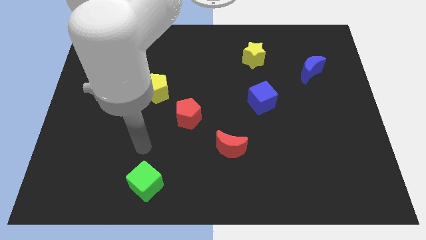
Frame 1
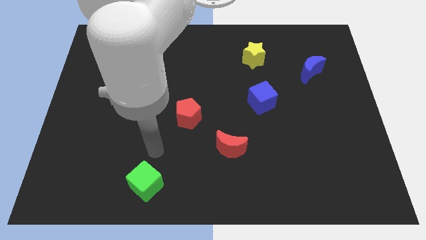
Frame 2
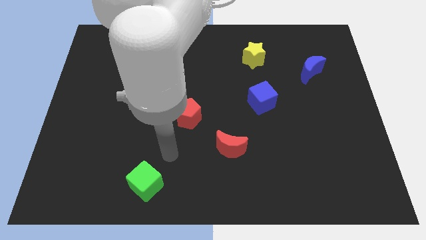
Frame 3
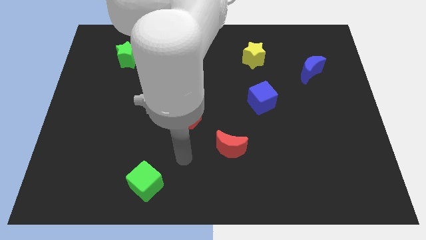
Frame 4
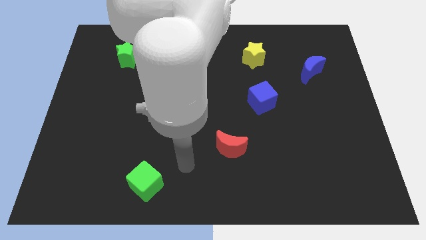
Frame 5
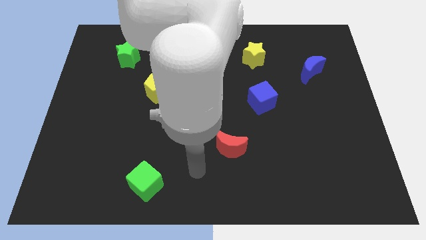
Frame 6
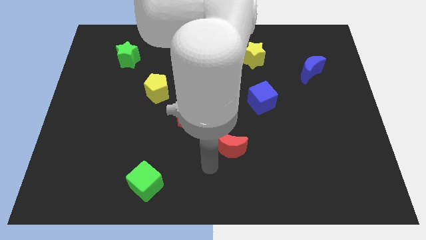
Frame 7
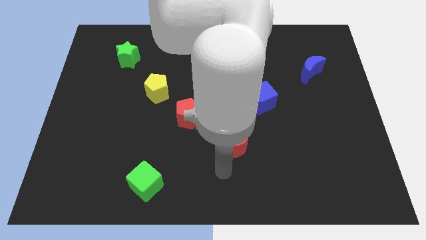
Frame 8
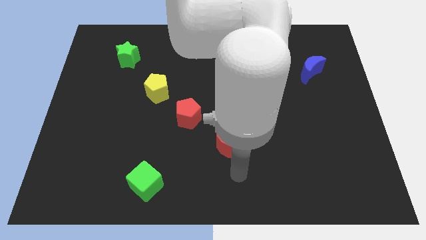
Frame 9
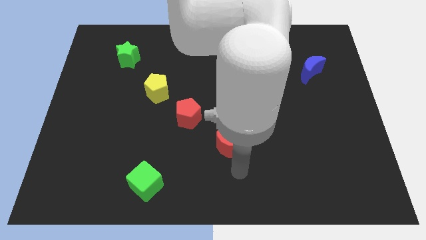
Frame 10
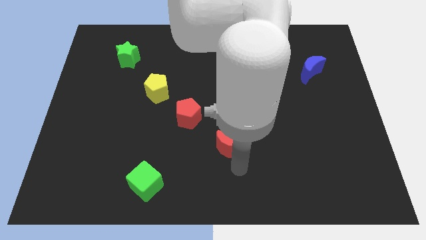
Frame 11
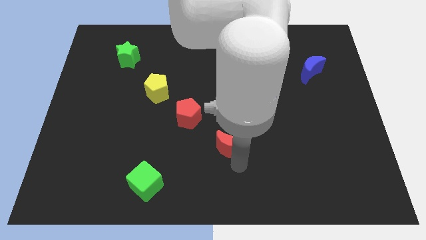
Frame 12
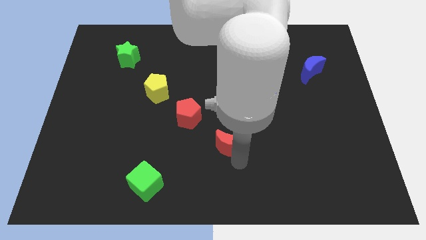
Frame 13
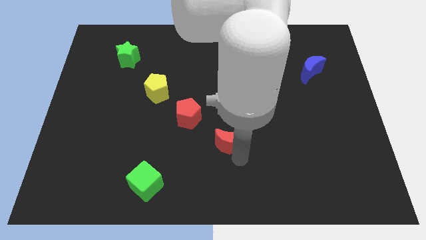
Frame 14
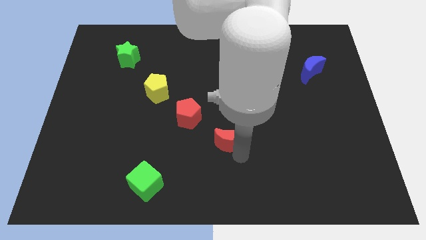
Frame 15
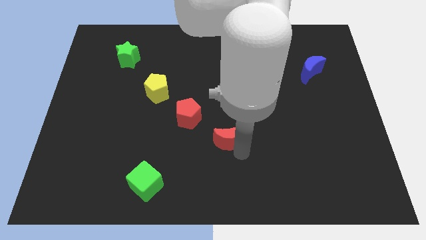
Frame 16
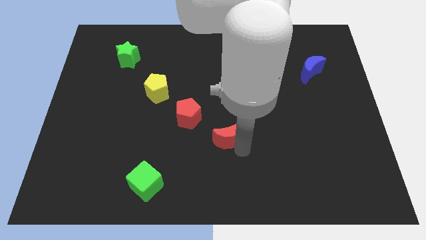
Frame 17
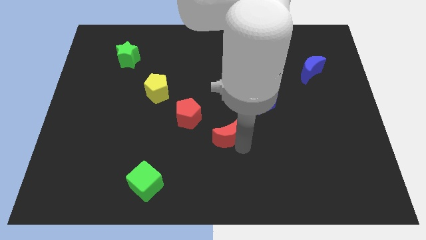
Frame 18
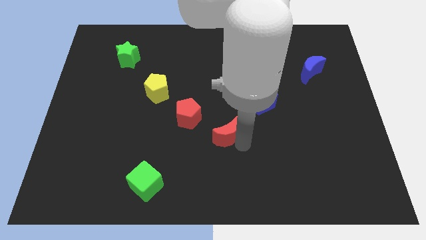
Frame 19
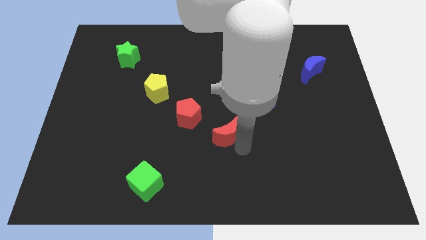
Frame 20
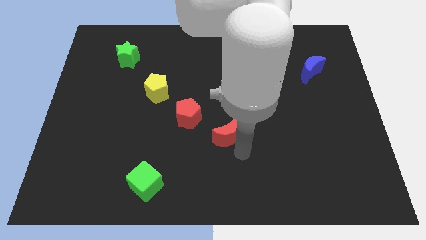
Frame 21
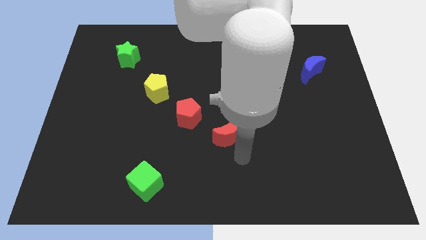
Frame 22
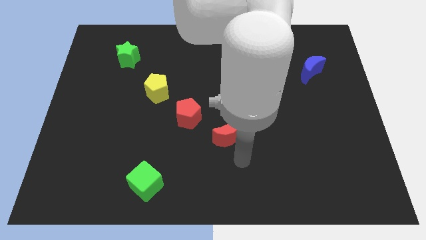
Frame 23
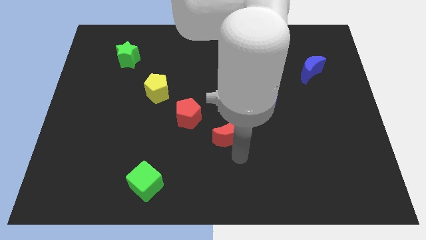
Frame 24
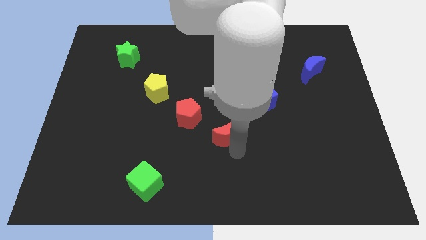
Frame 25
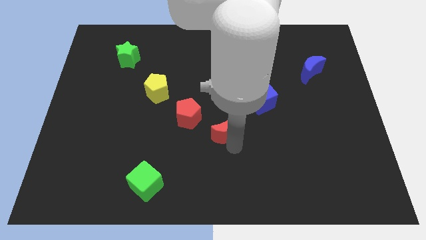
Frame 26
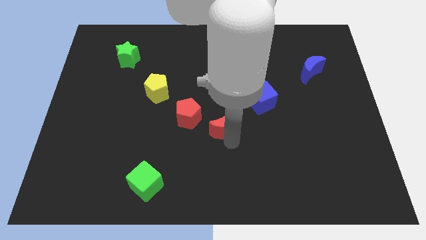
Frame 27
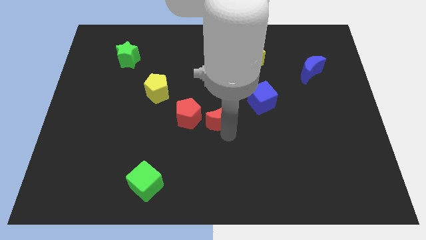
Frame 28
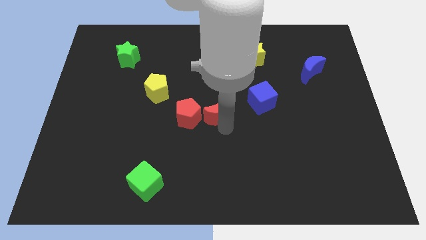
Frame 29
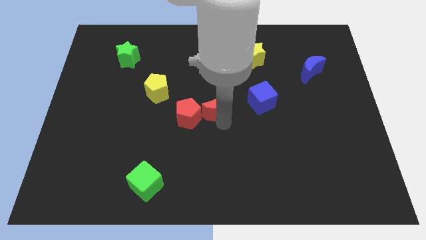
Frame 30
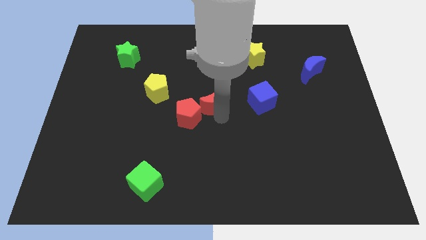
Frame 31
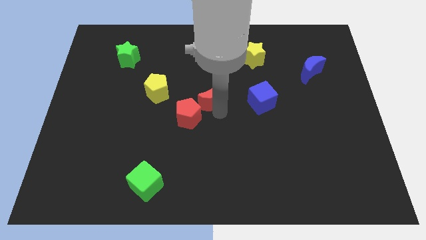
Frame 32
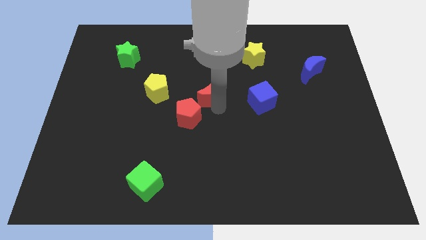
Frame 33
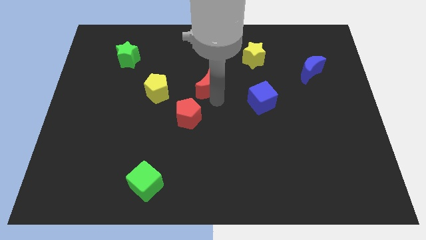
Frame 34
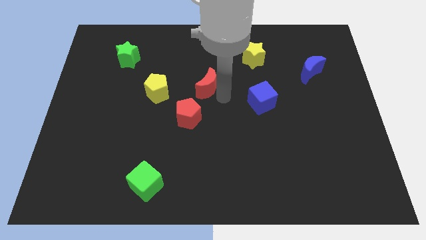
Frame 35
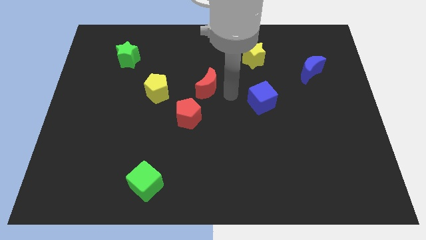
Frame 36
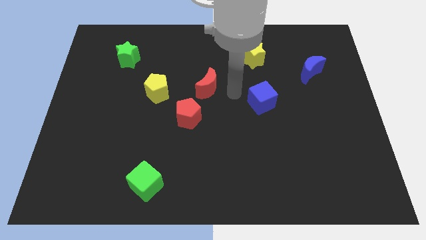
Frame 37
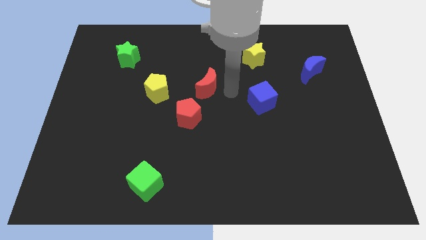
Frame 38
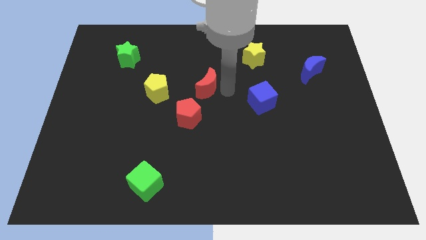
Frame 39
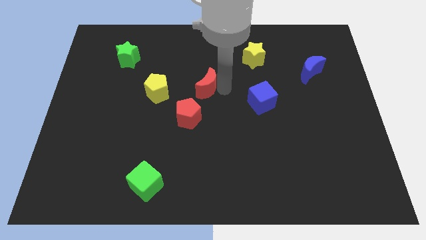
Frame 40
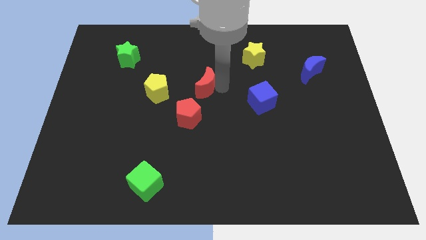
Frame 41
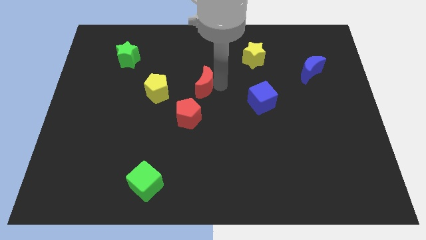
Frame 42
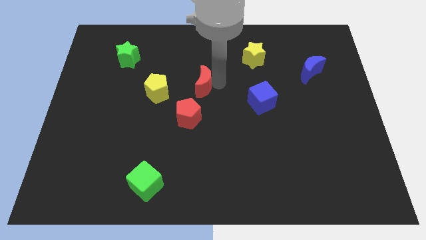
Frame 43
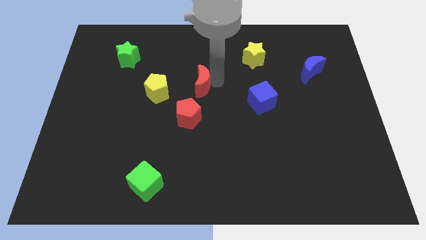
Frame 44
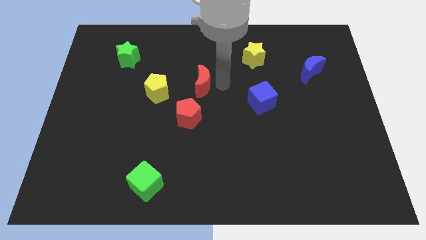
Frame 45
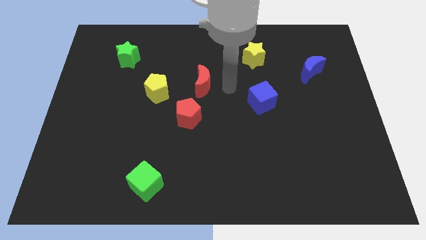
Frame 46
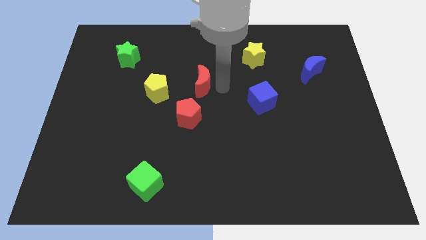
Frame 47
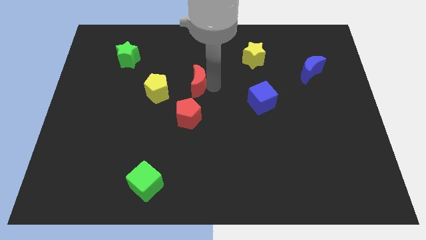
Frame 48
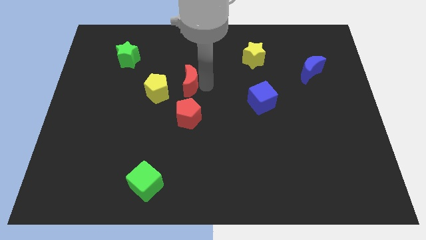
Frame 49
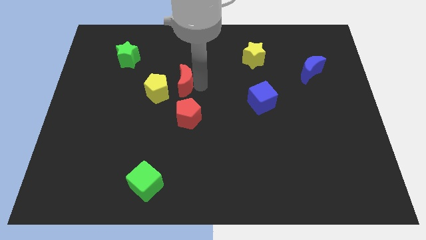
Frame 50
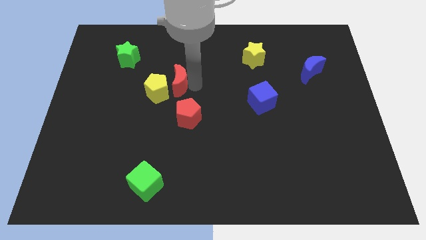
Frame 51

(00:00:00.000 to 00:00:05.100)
move the red moon up and to the left

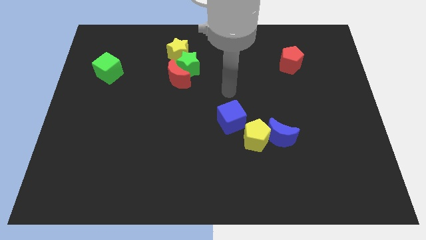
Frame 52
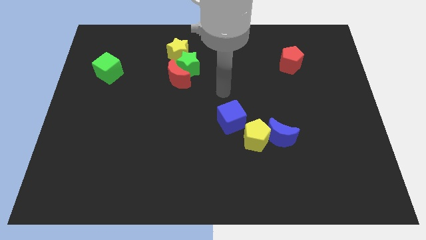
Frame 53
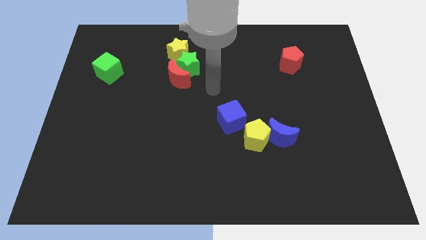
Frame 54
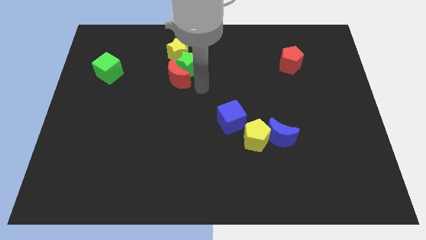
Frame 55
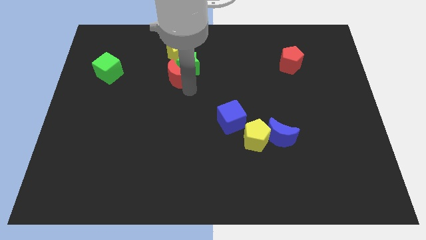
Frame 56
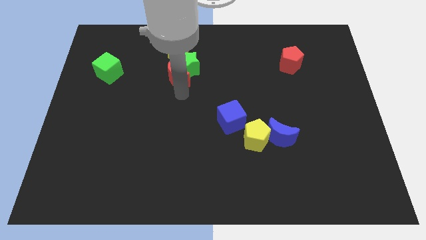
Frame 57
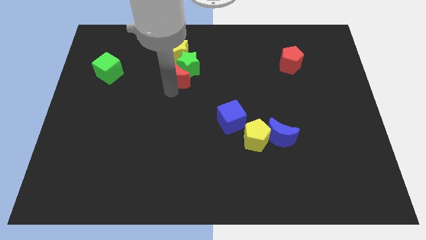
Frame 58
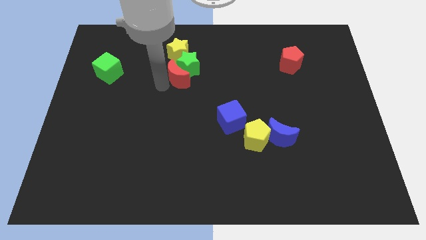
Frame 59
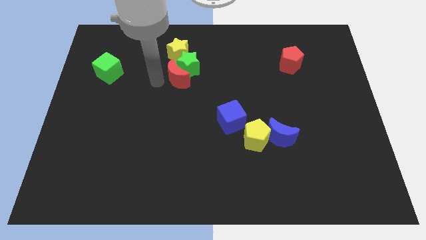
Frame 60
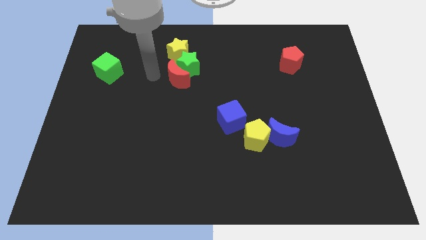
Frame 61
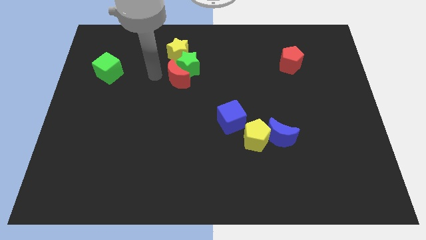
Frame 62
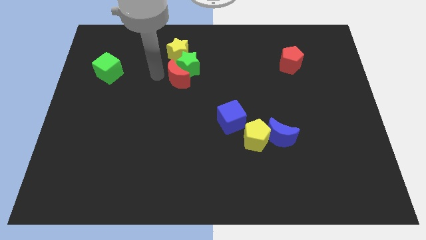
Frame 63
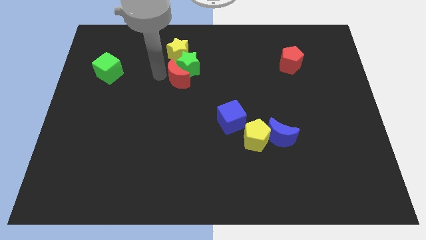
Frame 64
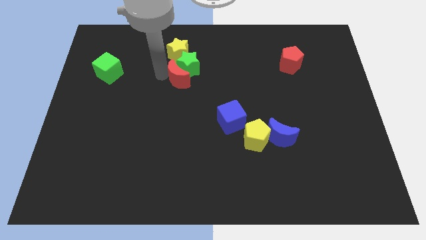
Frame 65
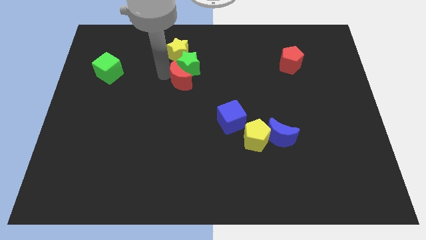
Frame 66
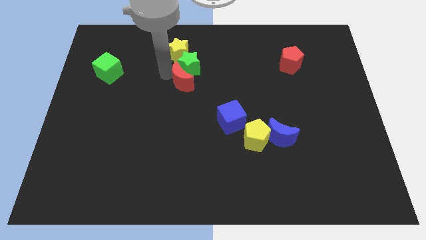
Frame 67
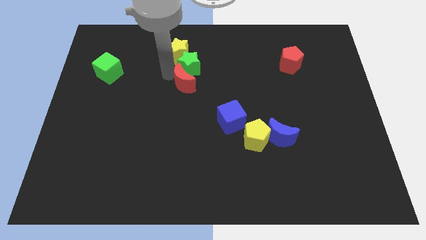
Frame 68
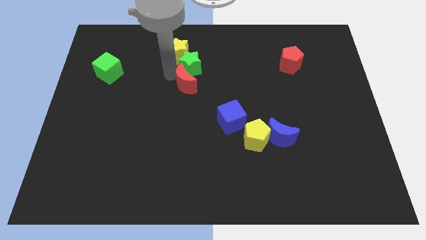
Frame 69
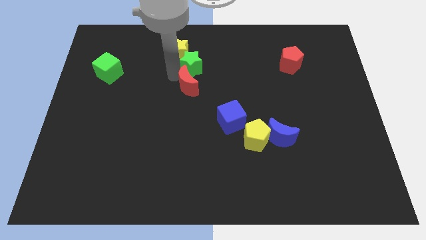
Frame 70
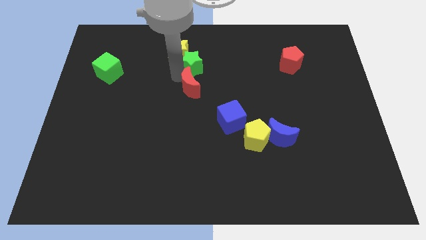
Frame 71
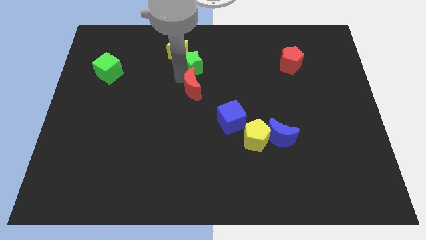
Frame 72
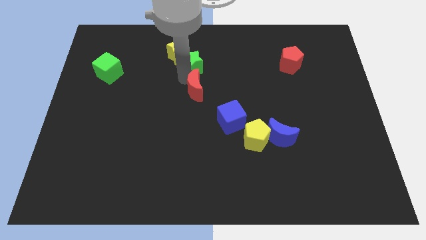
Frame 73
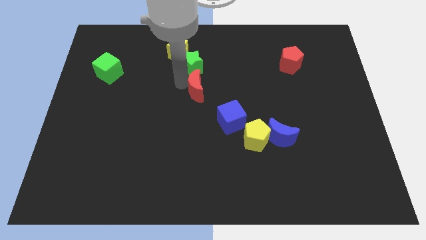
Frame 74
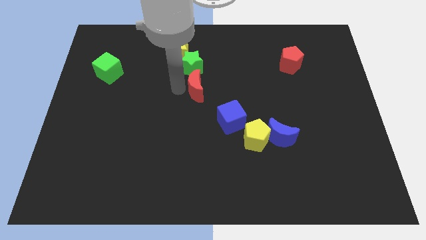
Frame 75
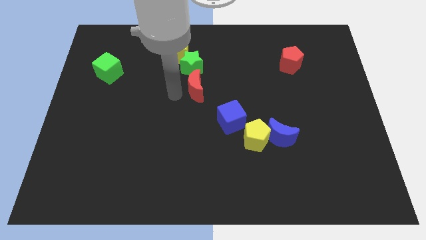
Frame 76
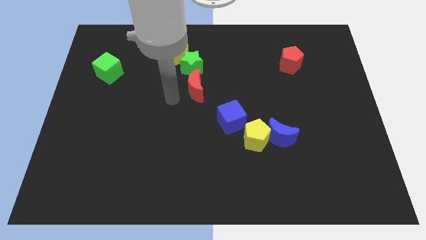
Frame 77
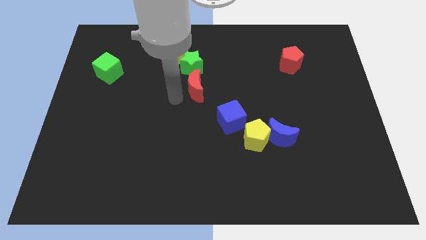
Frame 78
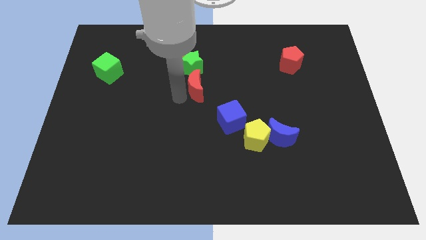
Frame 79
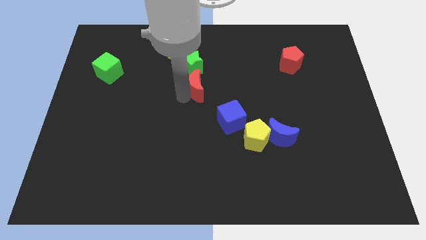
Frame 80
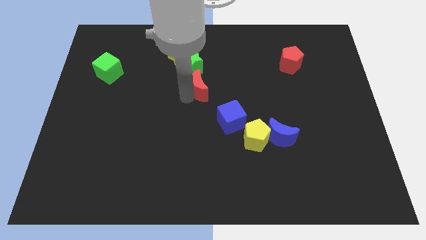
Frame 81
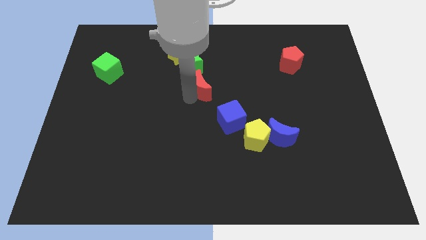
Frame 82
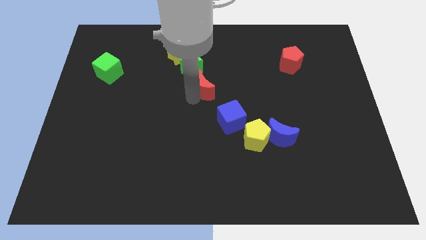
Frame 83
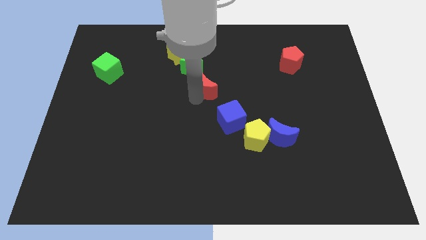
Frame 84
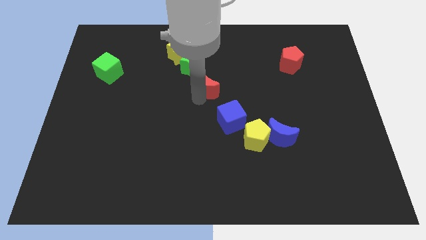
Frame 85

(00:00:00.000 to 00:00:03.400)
move the red moon to the right a little bit
